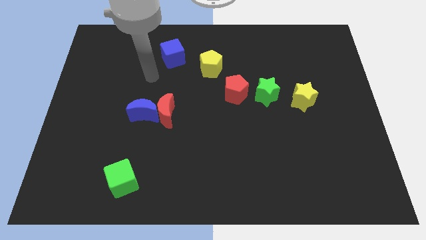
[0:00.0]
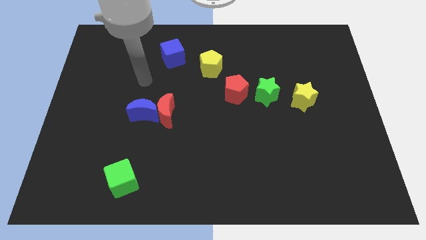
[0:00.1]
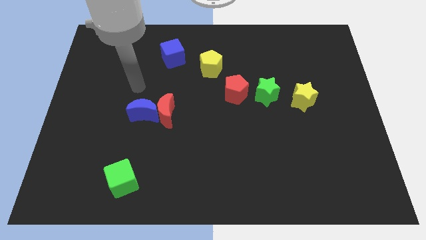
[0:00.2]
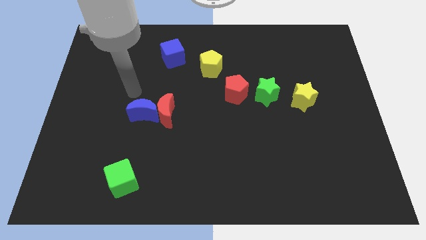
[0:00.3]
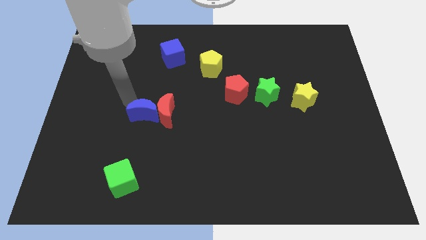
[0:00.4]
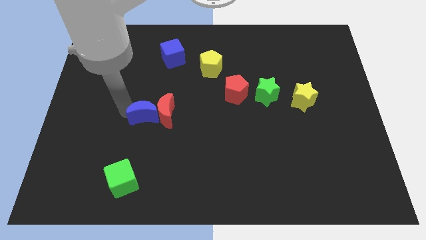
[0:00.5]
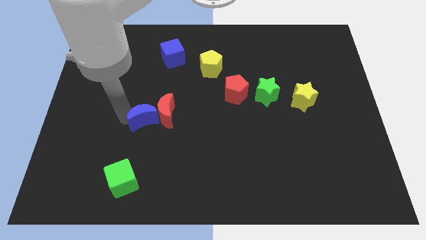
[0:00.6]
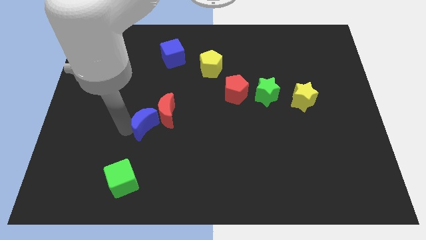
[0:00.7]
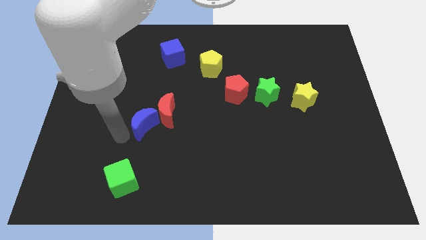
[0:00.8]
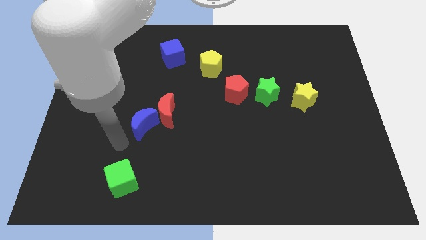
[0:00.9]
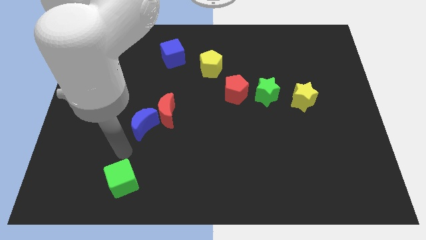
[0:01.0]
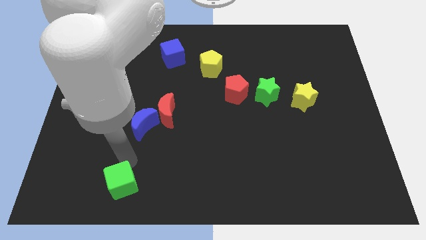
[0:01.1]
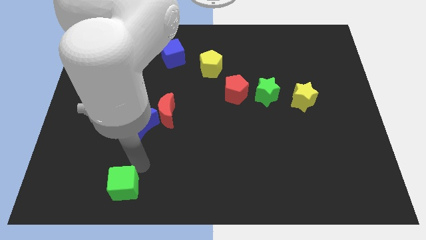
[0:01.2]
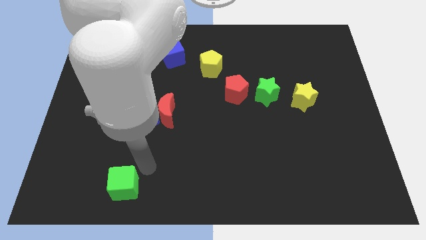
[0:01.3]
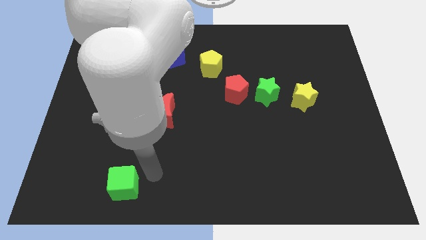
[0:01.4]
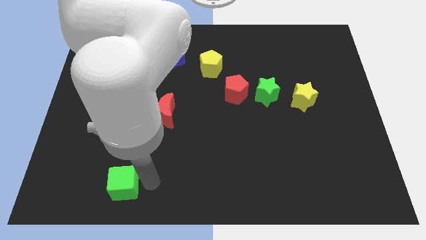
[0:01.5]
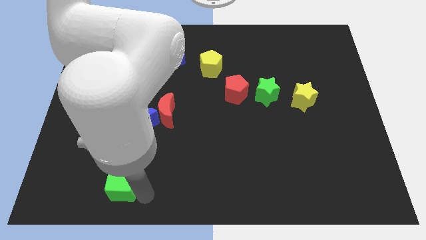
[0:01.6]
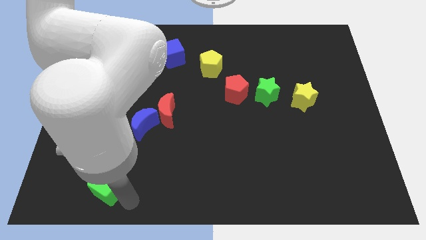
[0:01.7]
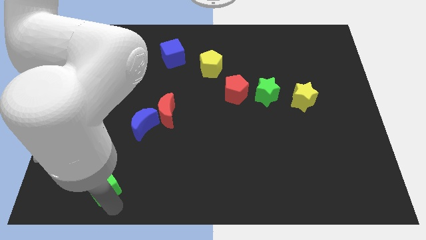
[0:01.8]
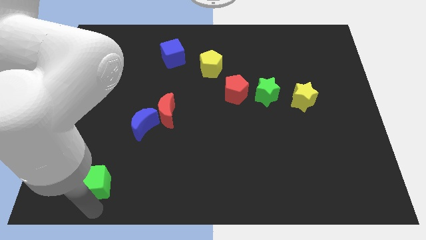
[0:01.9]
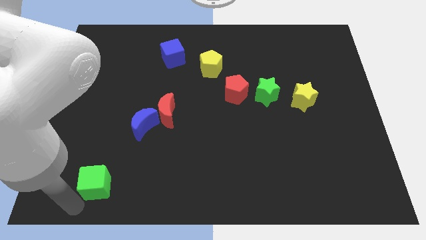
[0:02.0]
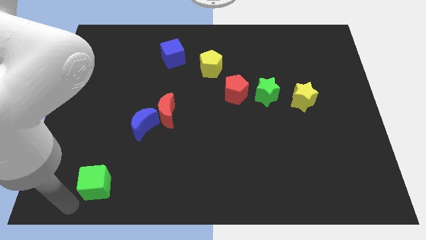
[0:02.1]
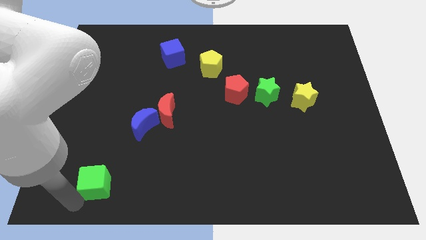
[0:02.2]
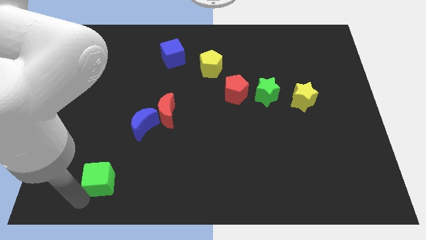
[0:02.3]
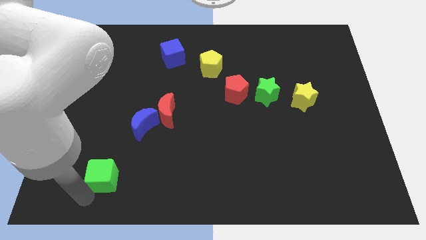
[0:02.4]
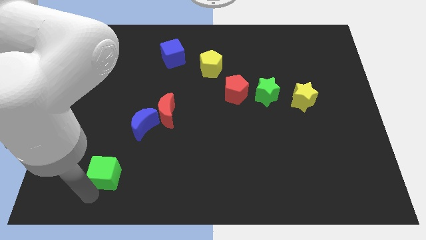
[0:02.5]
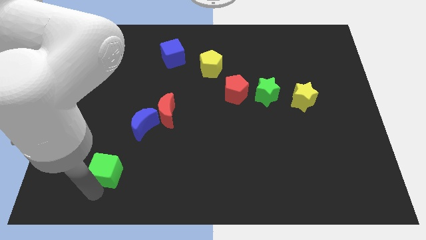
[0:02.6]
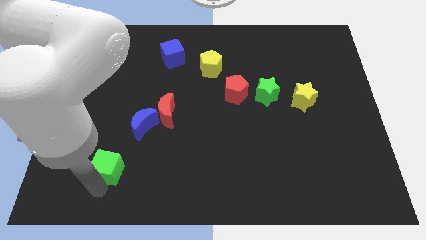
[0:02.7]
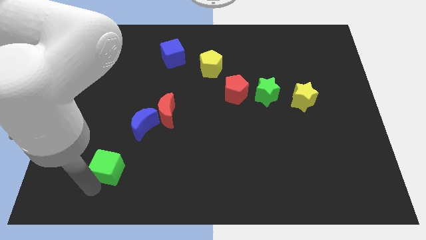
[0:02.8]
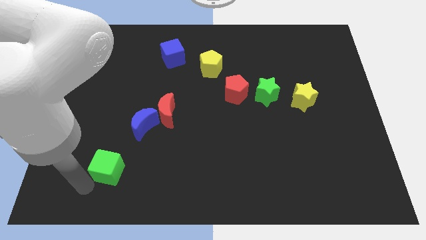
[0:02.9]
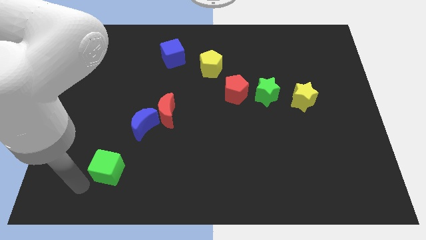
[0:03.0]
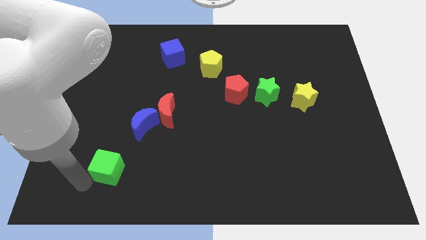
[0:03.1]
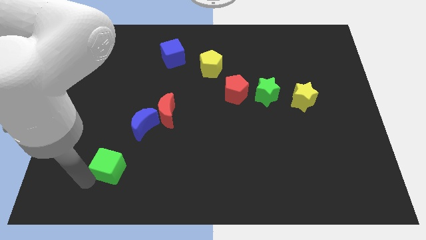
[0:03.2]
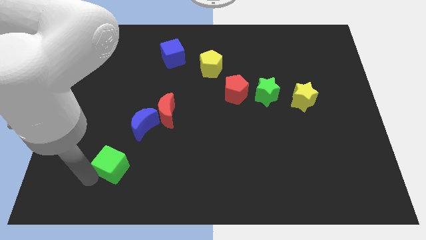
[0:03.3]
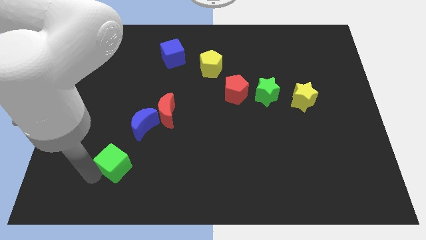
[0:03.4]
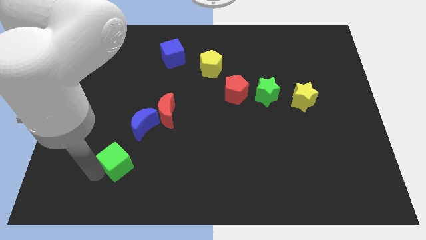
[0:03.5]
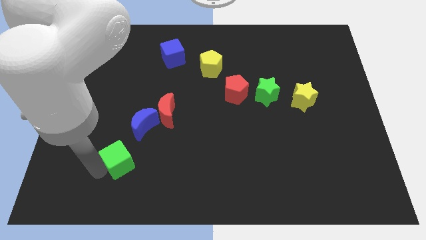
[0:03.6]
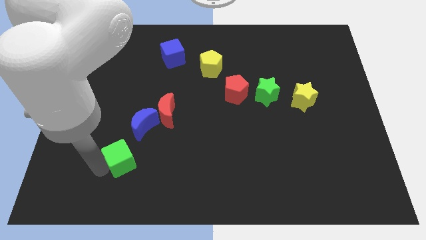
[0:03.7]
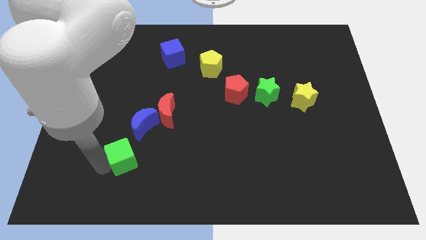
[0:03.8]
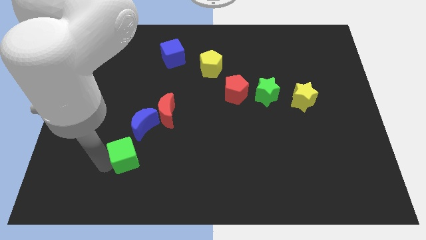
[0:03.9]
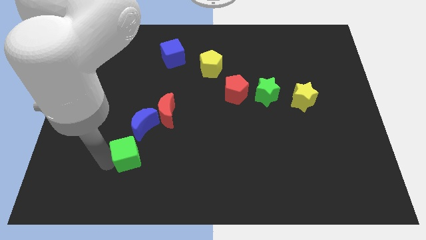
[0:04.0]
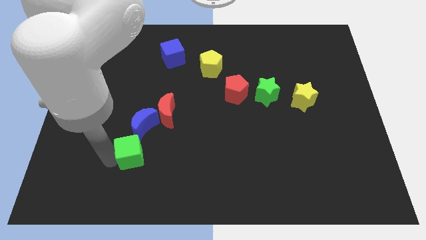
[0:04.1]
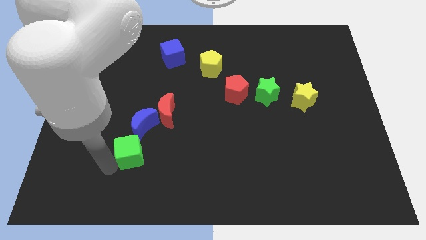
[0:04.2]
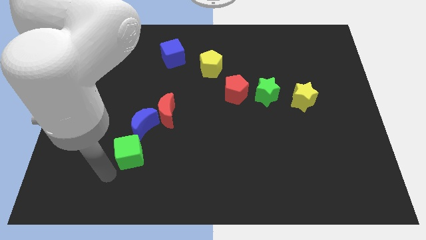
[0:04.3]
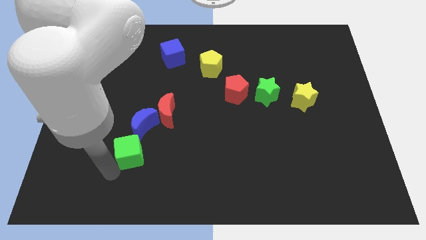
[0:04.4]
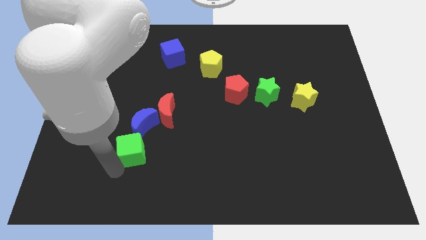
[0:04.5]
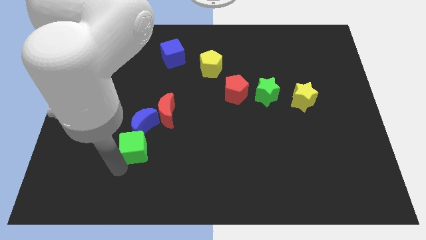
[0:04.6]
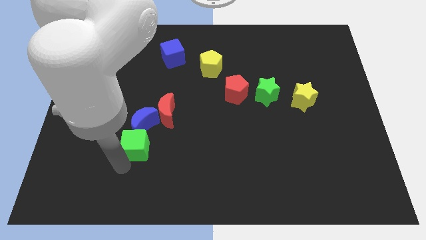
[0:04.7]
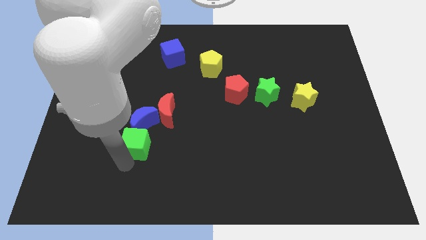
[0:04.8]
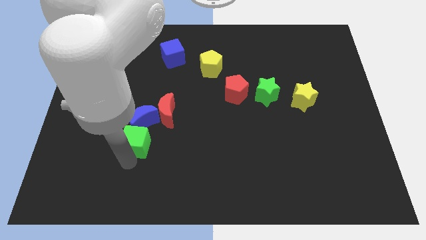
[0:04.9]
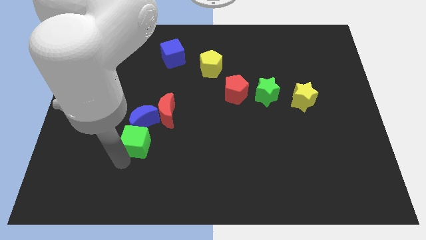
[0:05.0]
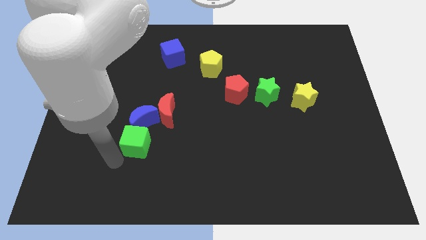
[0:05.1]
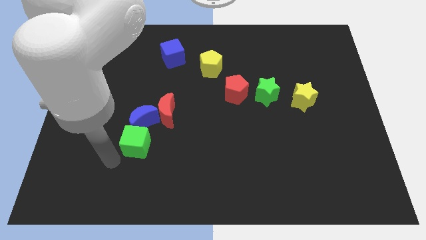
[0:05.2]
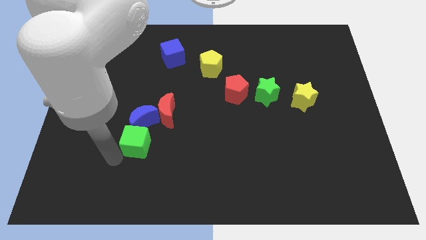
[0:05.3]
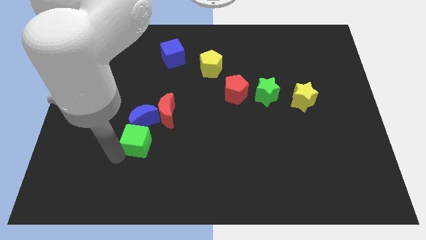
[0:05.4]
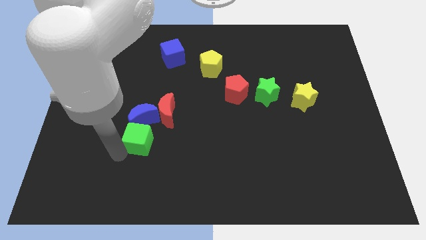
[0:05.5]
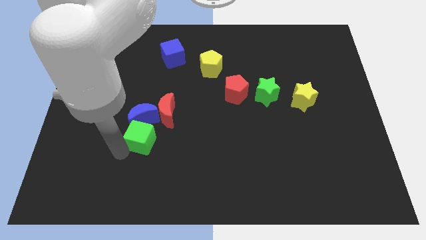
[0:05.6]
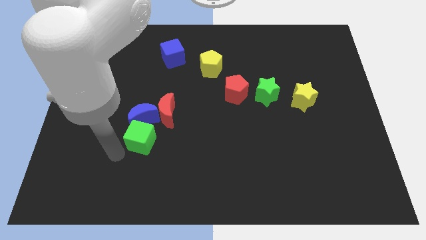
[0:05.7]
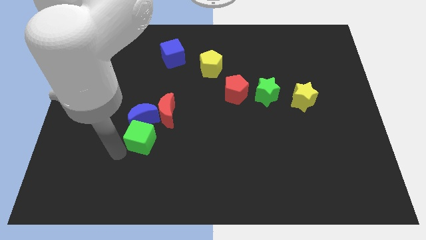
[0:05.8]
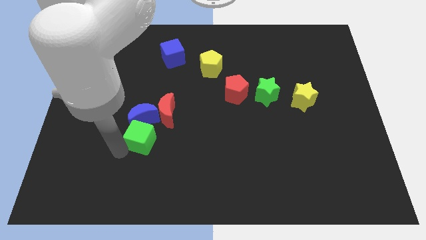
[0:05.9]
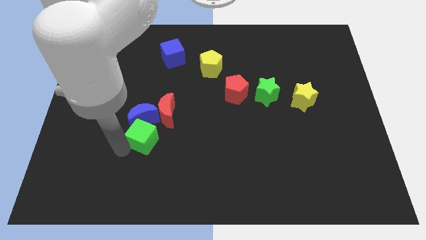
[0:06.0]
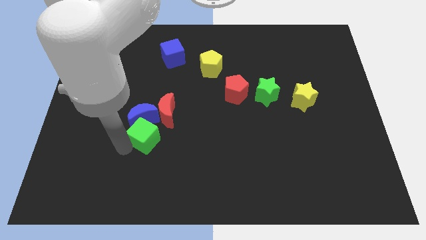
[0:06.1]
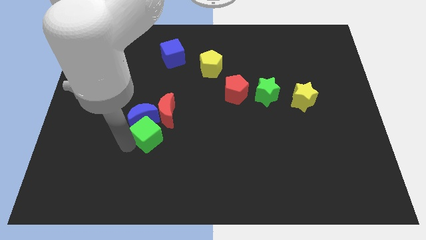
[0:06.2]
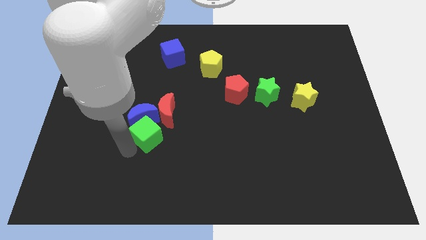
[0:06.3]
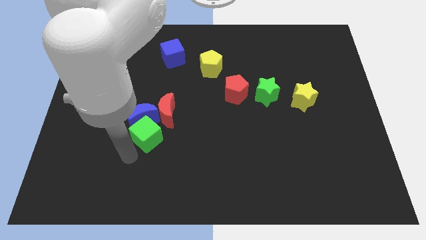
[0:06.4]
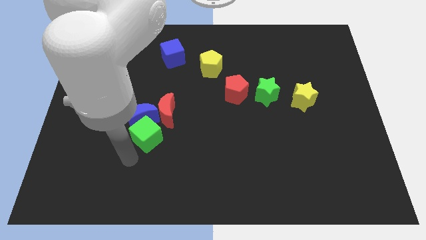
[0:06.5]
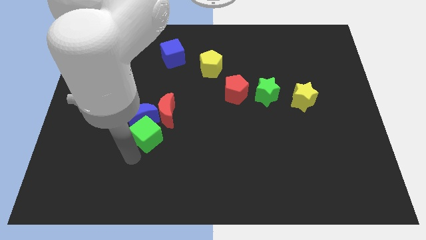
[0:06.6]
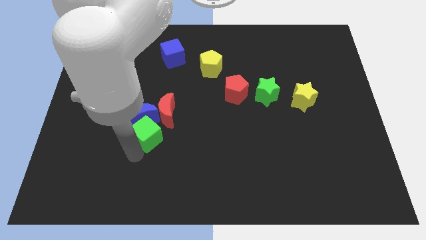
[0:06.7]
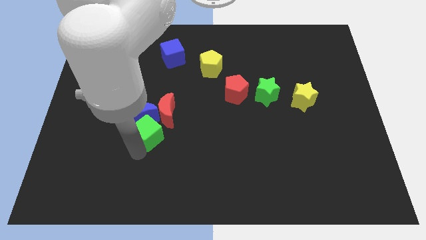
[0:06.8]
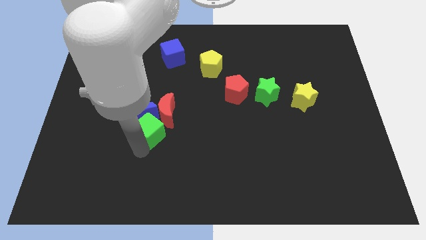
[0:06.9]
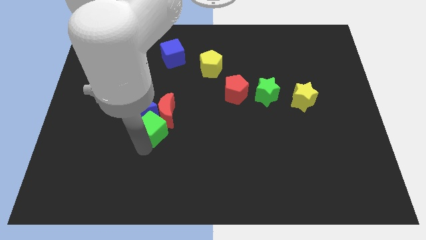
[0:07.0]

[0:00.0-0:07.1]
put the green cube close to the red moon
